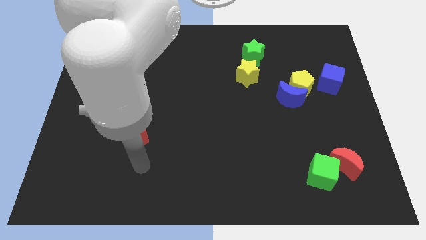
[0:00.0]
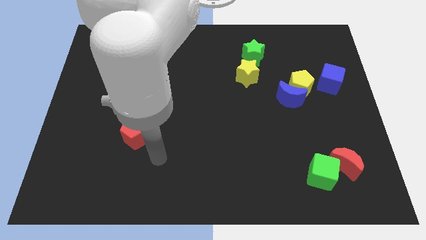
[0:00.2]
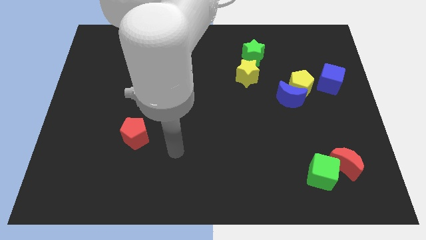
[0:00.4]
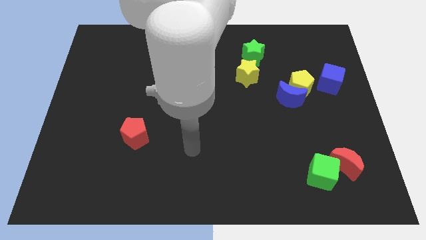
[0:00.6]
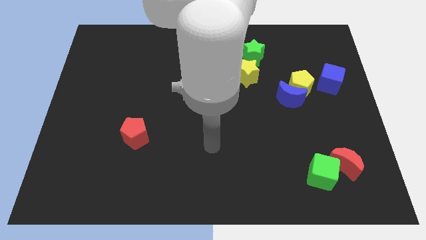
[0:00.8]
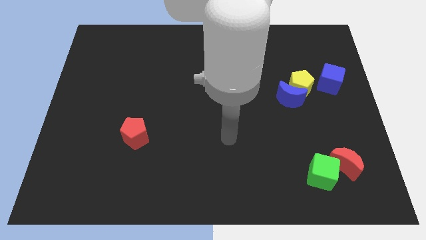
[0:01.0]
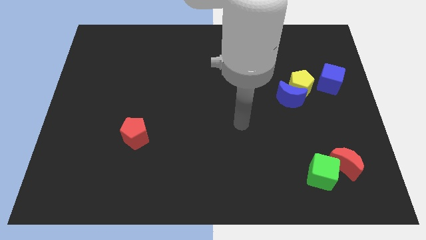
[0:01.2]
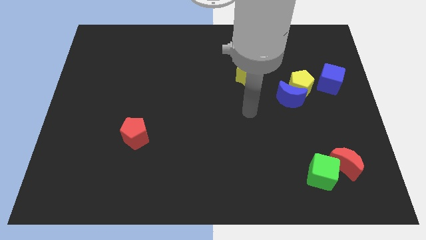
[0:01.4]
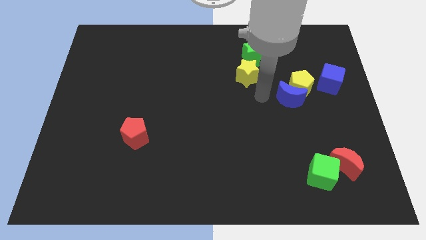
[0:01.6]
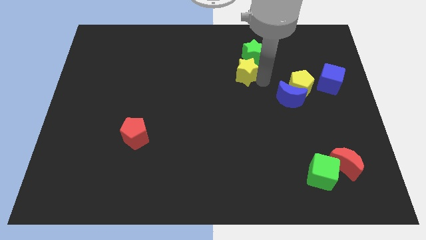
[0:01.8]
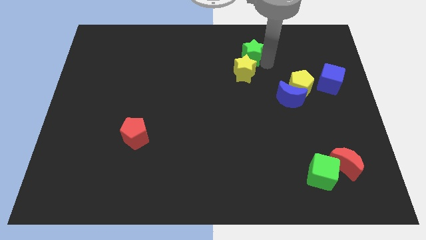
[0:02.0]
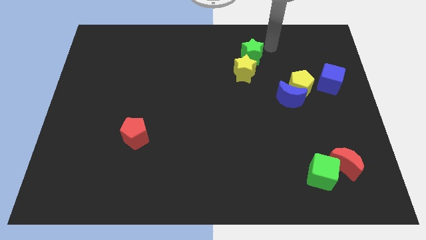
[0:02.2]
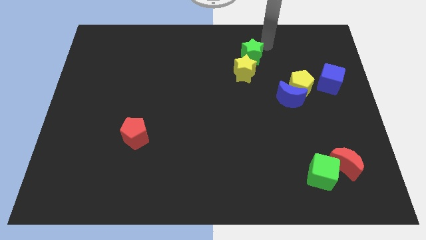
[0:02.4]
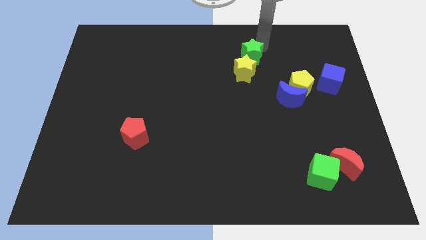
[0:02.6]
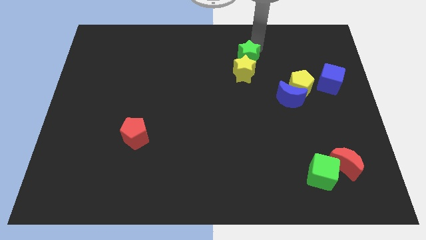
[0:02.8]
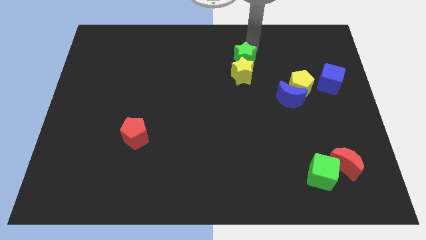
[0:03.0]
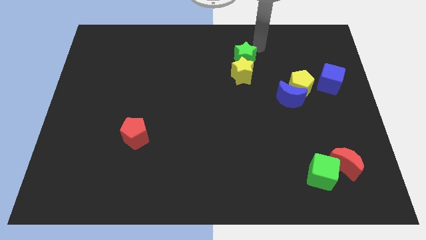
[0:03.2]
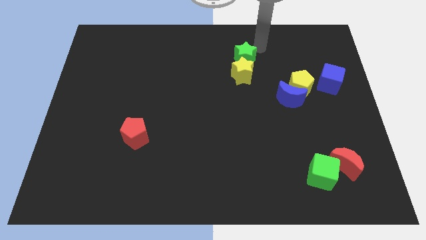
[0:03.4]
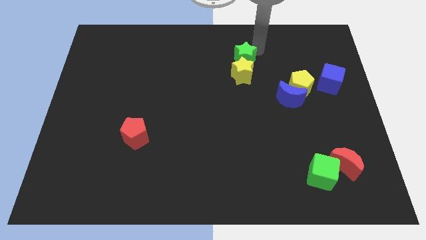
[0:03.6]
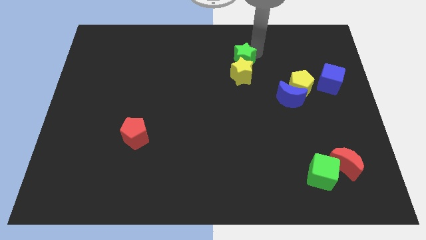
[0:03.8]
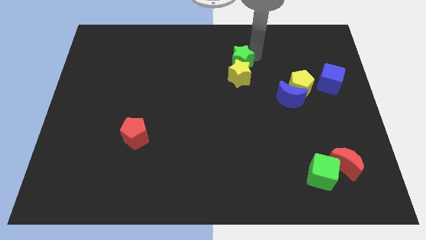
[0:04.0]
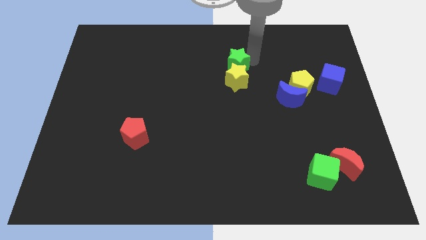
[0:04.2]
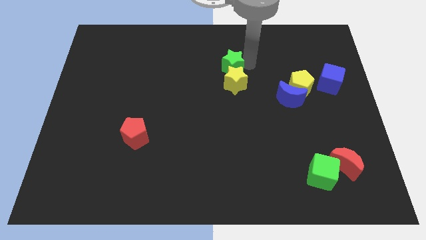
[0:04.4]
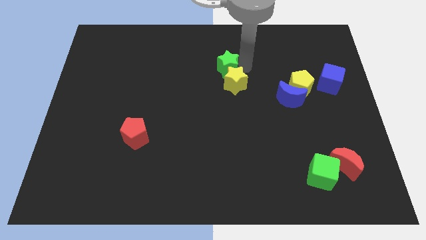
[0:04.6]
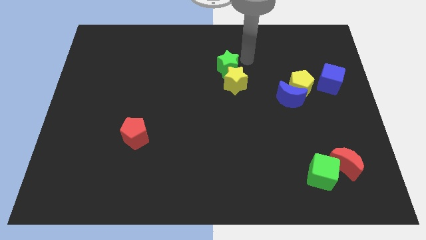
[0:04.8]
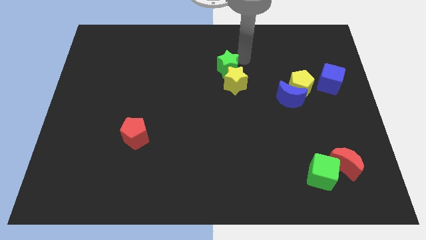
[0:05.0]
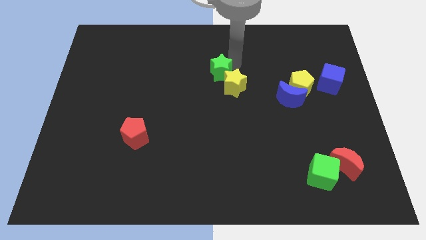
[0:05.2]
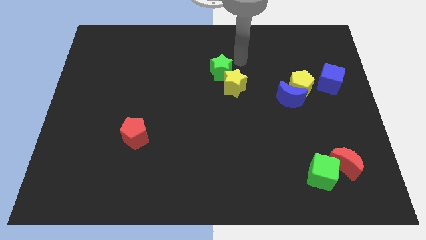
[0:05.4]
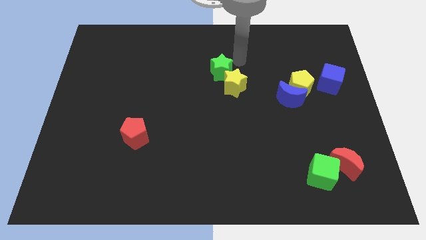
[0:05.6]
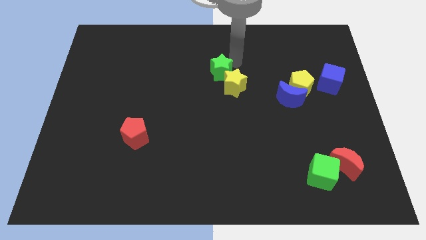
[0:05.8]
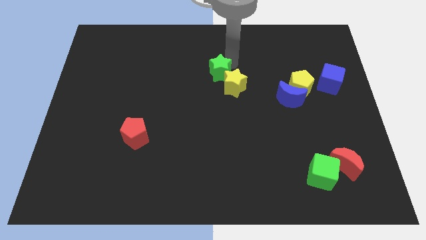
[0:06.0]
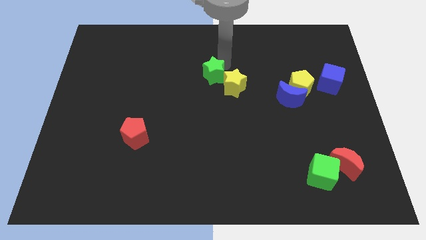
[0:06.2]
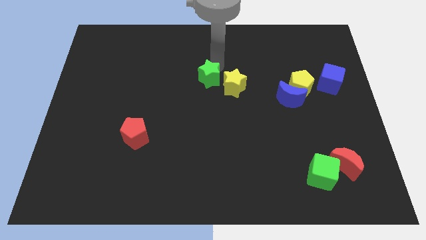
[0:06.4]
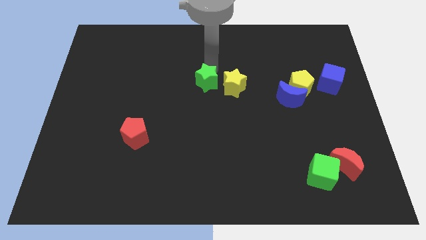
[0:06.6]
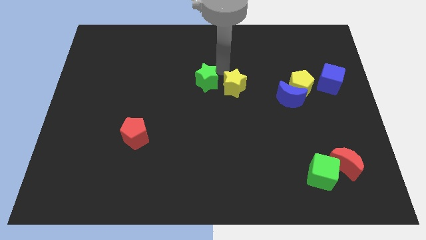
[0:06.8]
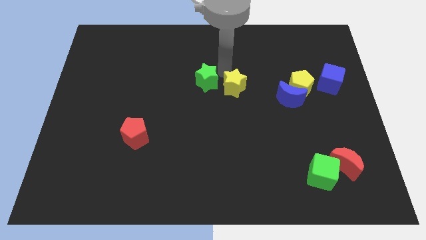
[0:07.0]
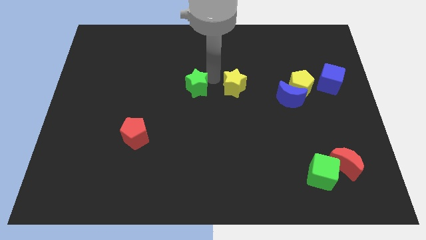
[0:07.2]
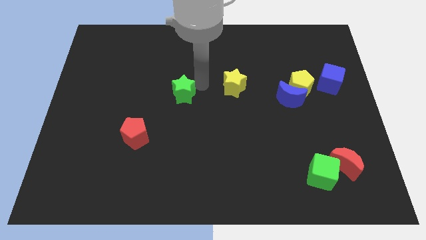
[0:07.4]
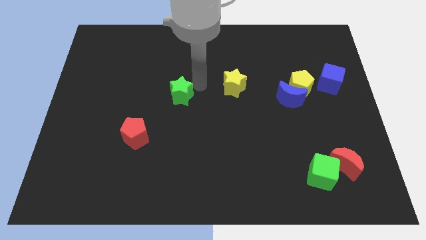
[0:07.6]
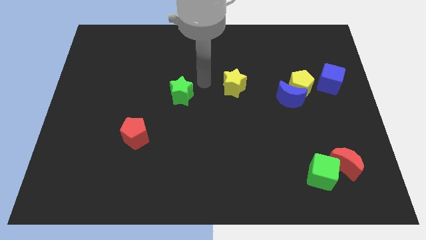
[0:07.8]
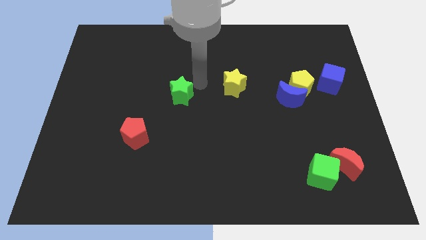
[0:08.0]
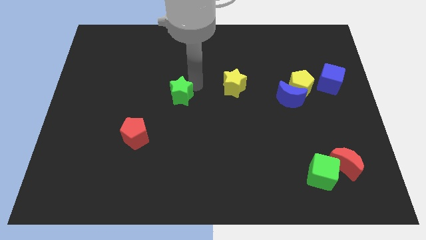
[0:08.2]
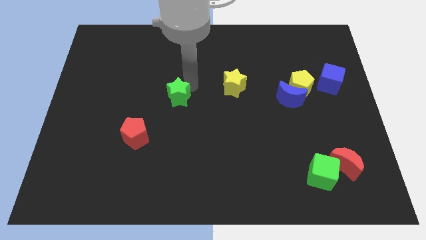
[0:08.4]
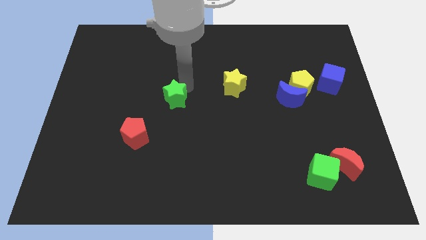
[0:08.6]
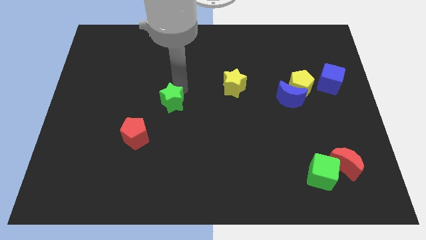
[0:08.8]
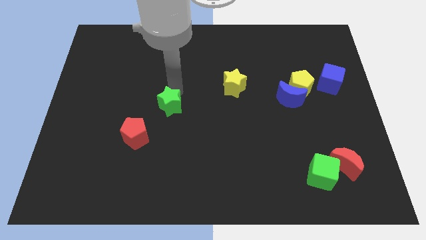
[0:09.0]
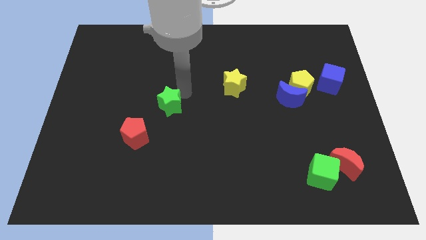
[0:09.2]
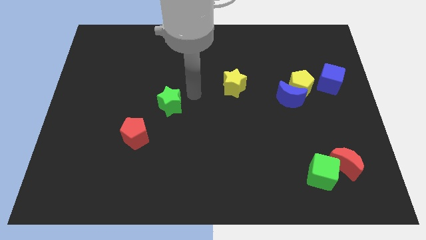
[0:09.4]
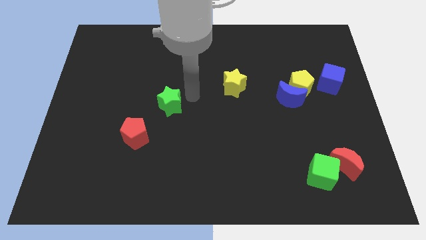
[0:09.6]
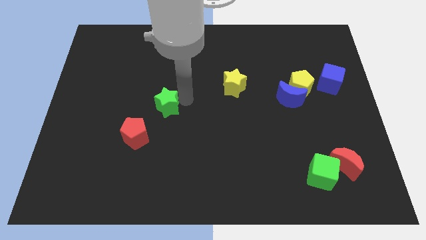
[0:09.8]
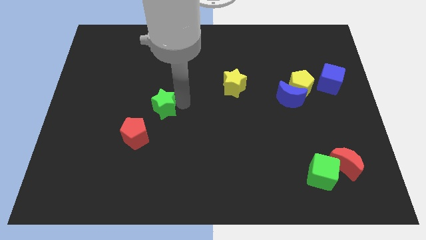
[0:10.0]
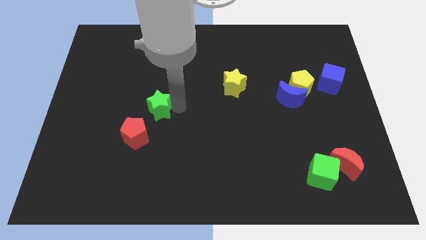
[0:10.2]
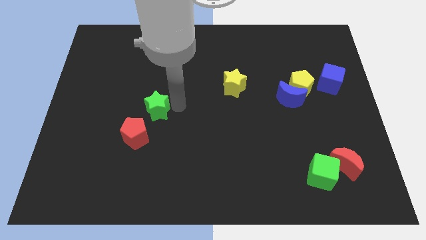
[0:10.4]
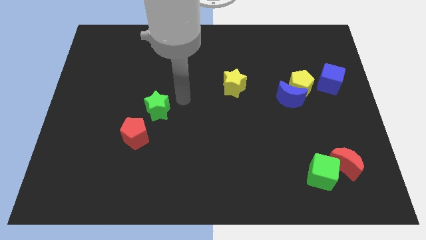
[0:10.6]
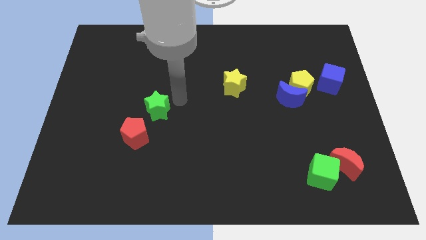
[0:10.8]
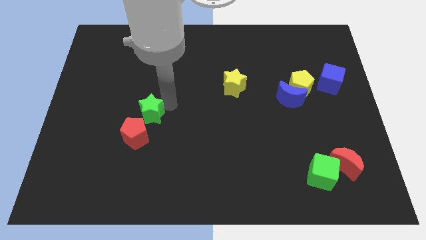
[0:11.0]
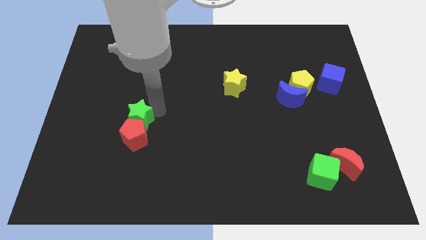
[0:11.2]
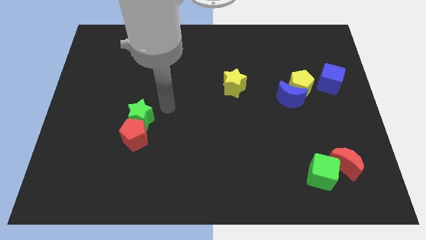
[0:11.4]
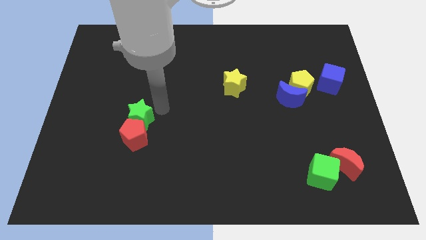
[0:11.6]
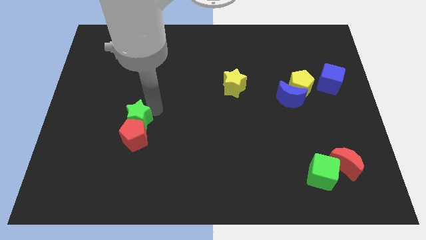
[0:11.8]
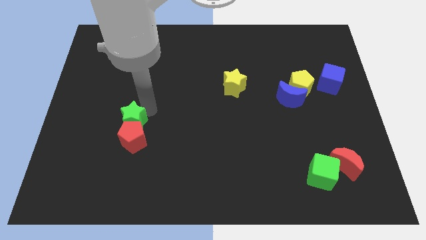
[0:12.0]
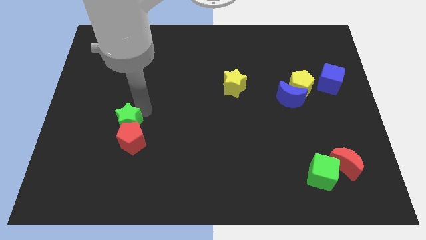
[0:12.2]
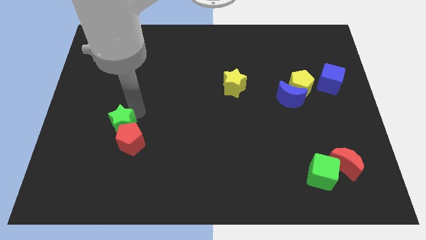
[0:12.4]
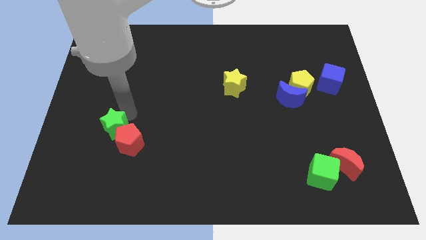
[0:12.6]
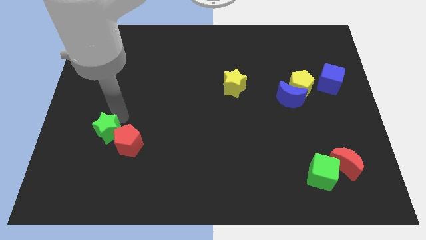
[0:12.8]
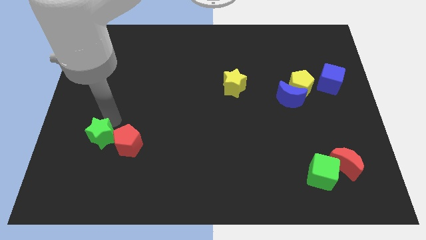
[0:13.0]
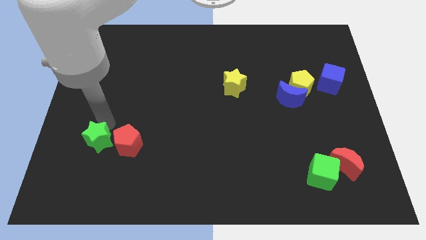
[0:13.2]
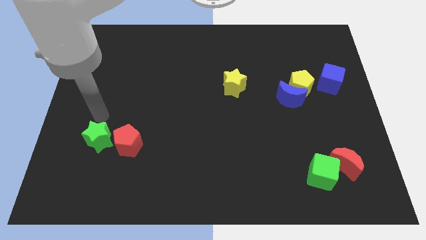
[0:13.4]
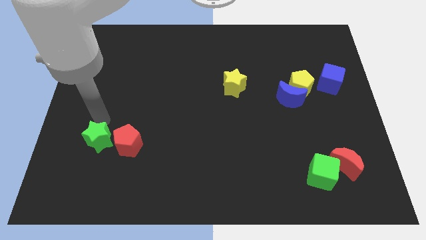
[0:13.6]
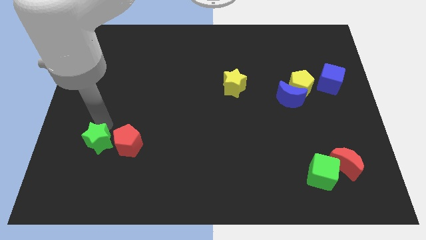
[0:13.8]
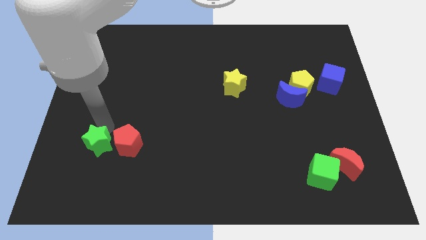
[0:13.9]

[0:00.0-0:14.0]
slide the green star diagonally down and to the left of the red pentagon
